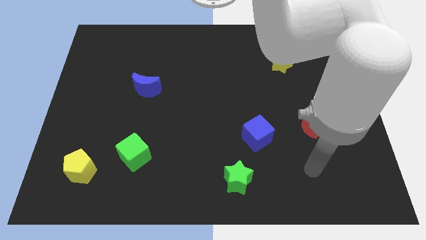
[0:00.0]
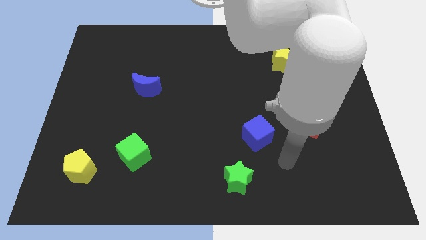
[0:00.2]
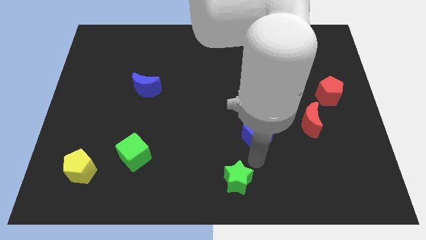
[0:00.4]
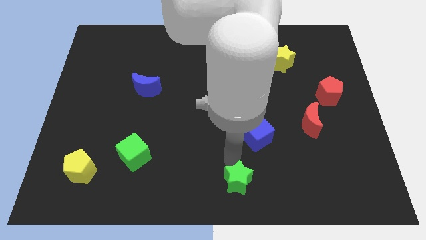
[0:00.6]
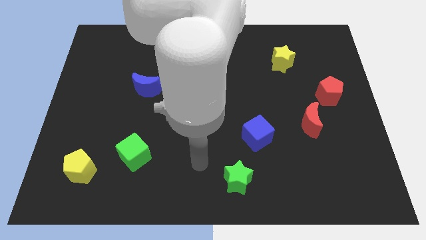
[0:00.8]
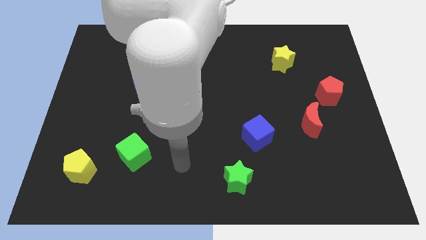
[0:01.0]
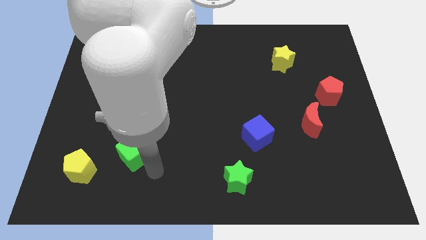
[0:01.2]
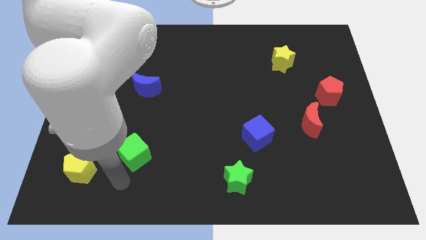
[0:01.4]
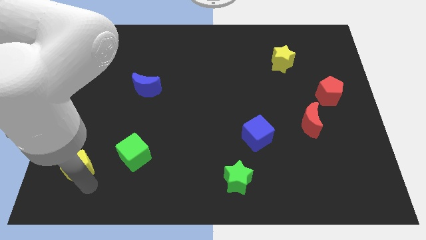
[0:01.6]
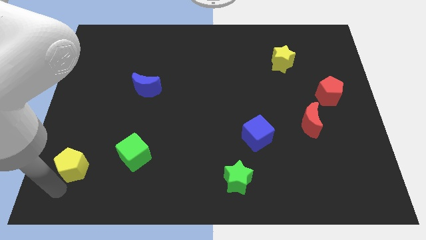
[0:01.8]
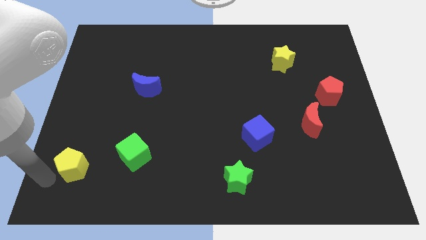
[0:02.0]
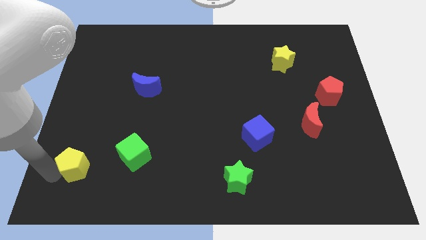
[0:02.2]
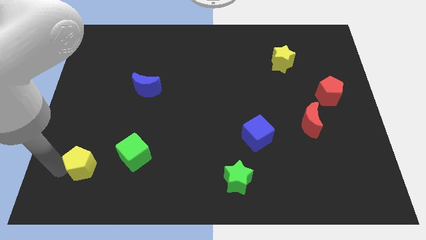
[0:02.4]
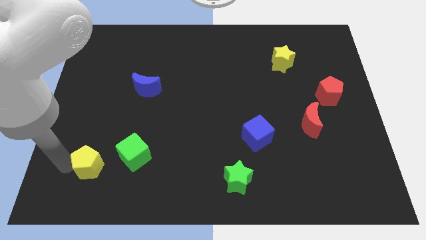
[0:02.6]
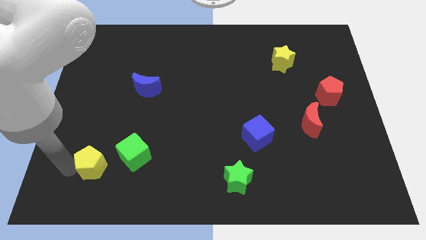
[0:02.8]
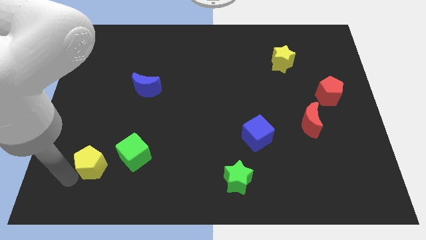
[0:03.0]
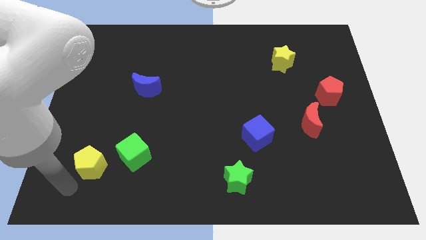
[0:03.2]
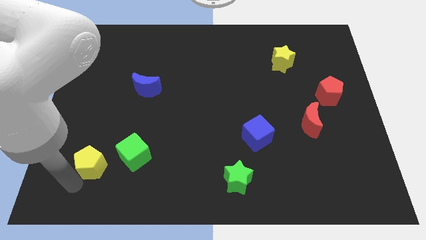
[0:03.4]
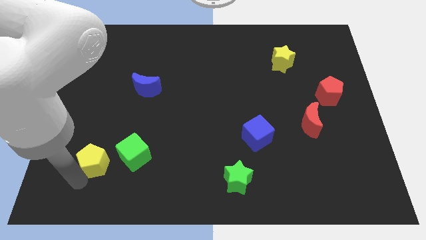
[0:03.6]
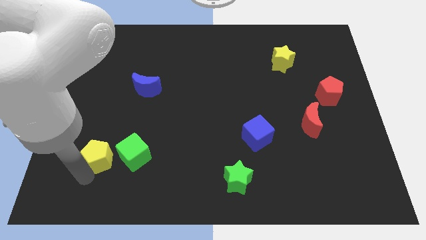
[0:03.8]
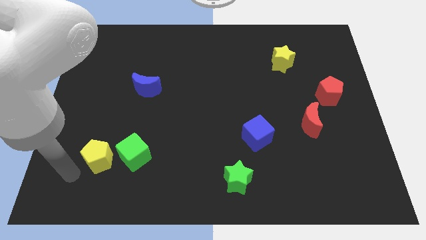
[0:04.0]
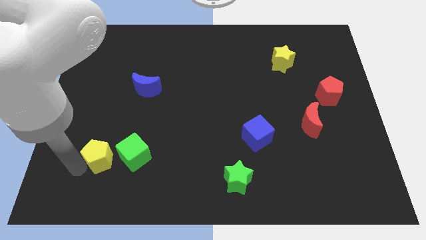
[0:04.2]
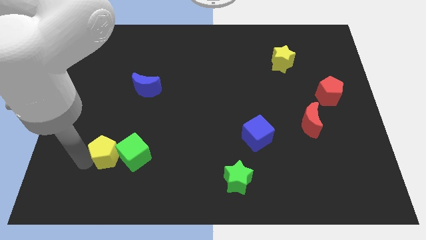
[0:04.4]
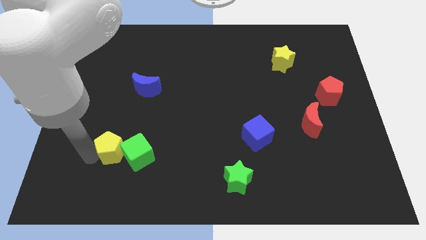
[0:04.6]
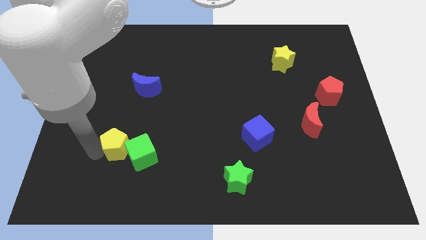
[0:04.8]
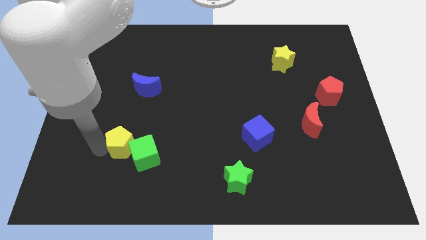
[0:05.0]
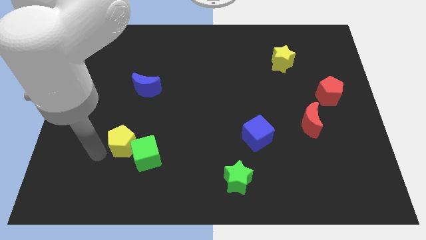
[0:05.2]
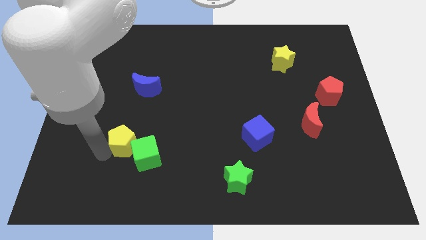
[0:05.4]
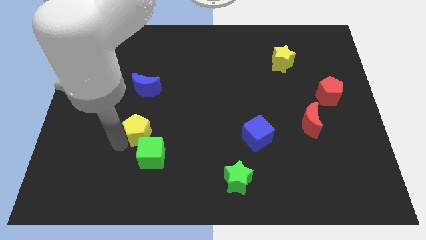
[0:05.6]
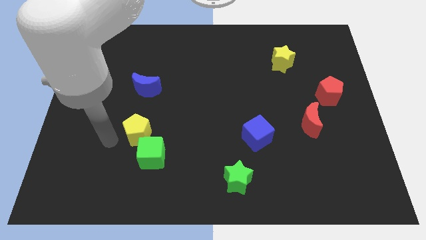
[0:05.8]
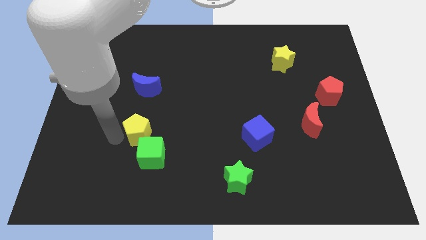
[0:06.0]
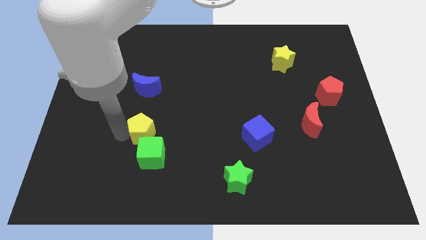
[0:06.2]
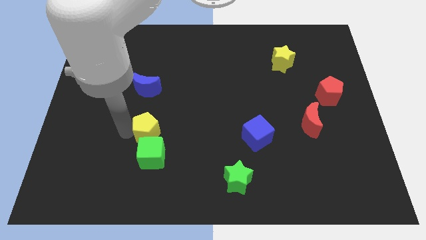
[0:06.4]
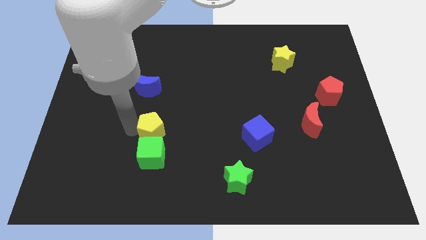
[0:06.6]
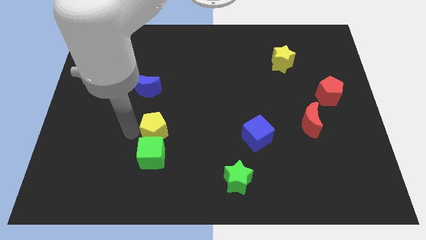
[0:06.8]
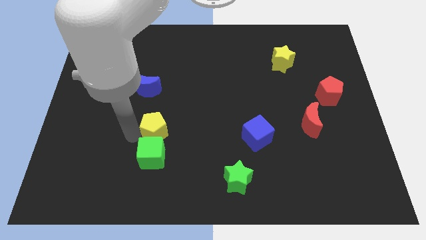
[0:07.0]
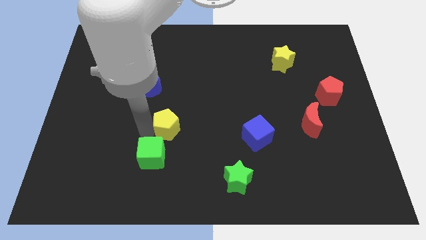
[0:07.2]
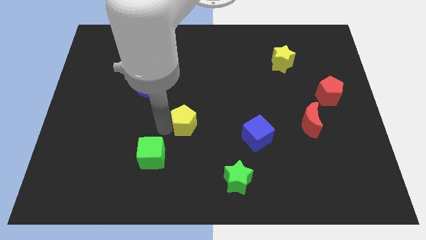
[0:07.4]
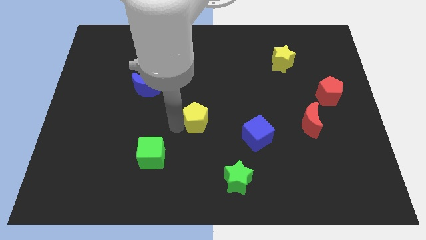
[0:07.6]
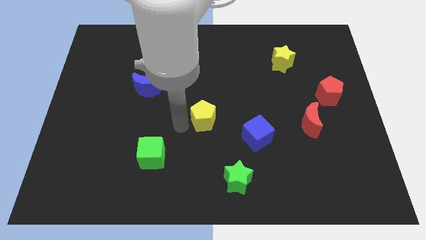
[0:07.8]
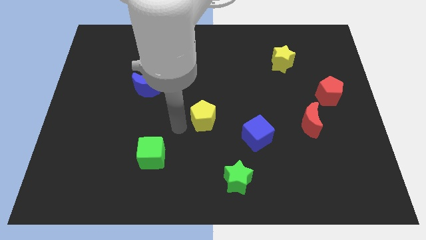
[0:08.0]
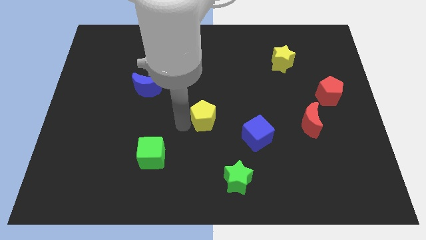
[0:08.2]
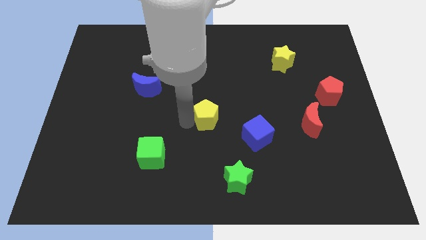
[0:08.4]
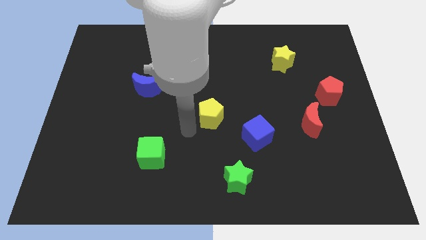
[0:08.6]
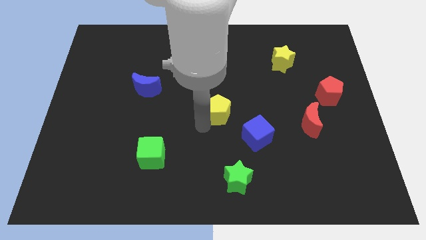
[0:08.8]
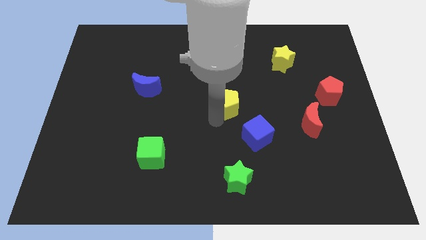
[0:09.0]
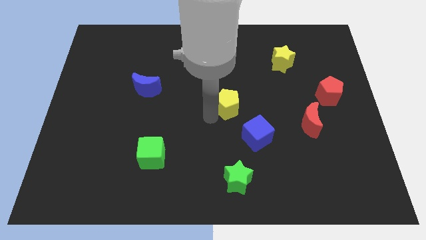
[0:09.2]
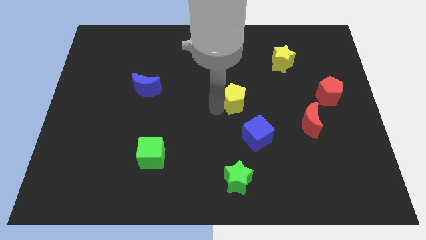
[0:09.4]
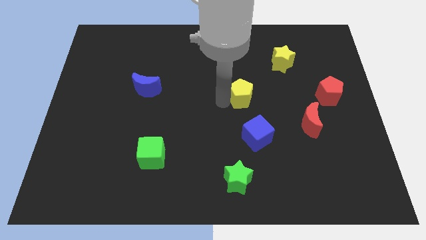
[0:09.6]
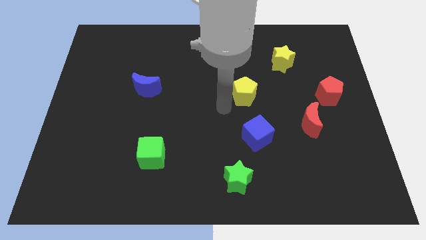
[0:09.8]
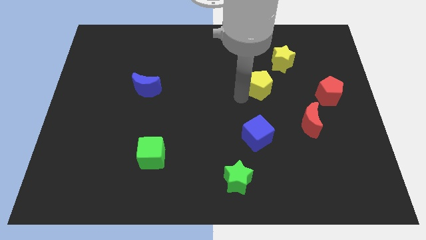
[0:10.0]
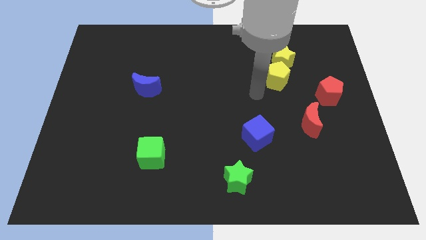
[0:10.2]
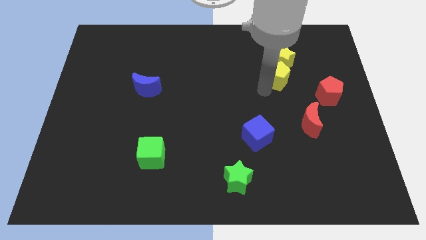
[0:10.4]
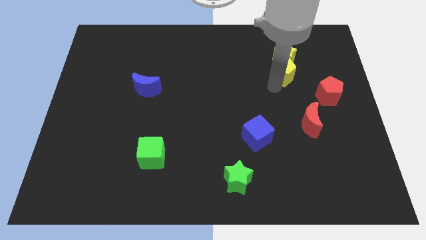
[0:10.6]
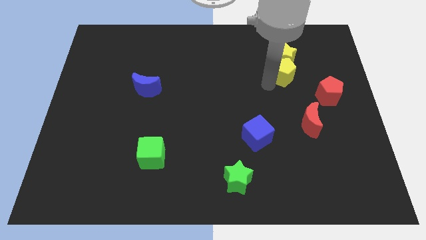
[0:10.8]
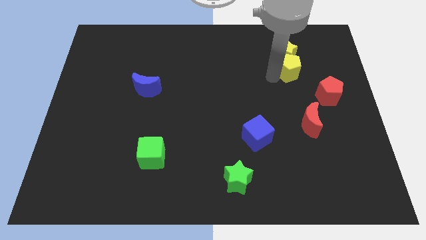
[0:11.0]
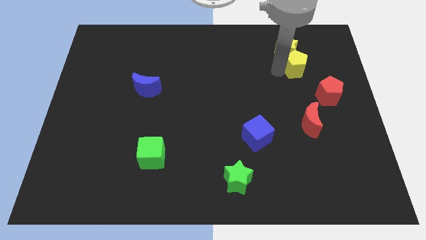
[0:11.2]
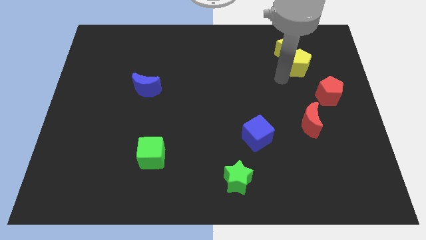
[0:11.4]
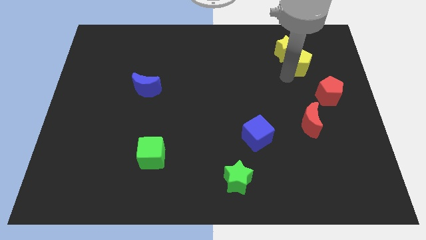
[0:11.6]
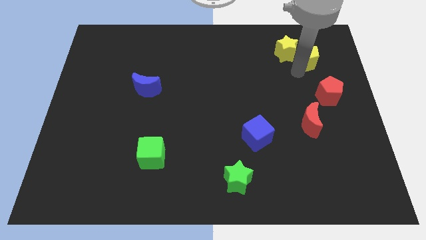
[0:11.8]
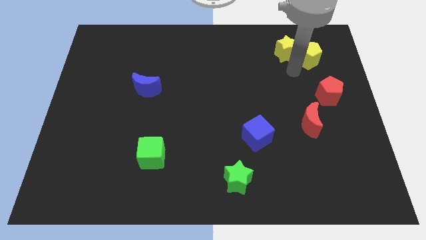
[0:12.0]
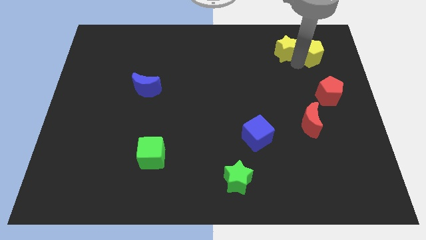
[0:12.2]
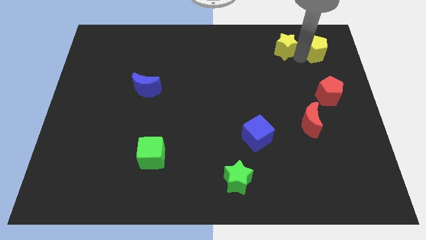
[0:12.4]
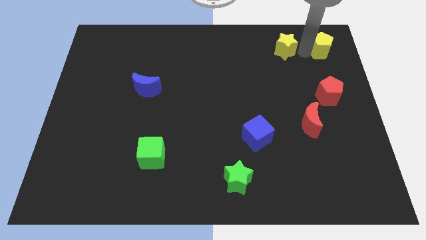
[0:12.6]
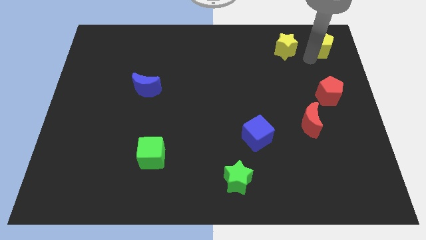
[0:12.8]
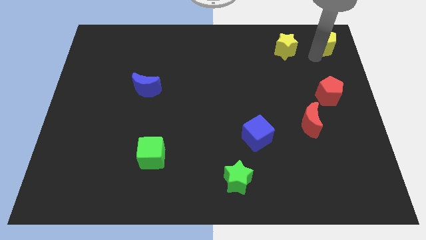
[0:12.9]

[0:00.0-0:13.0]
push the yellow pentagon to the top right of the board
